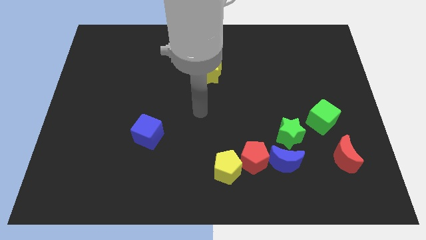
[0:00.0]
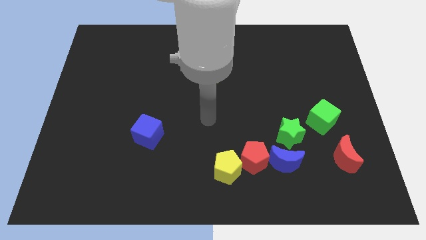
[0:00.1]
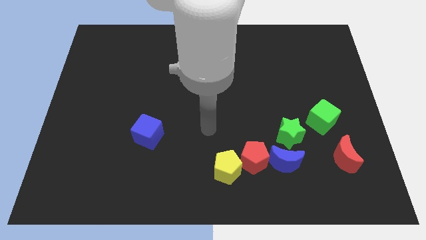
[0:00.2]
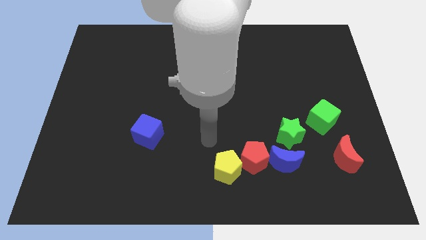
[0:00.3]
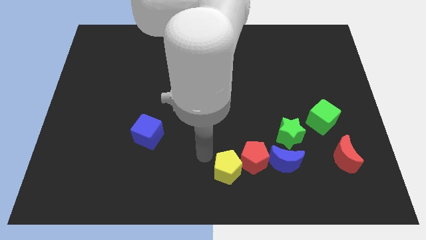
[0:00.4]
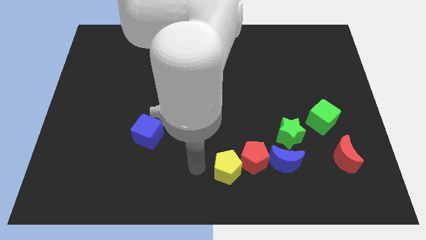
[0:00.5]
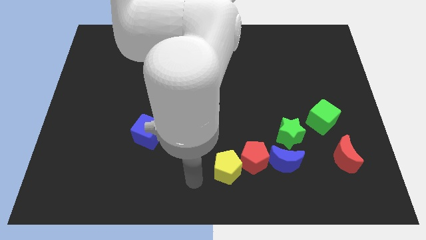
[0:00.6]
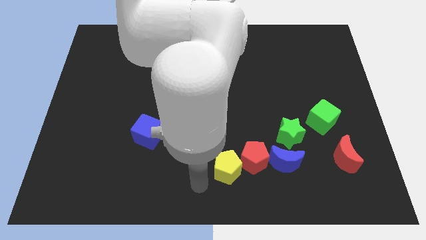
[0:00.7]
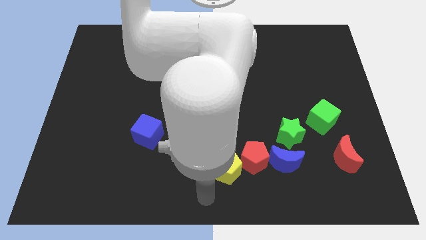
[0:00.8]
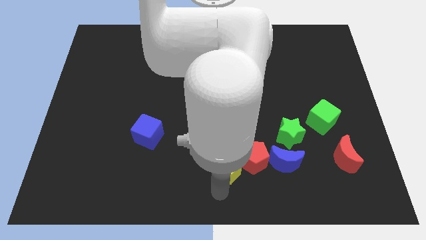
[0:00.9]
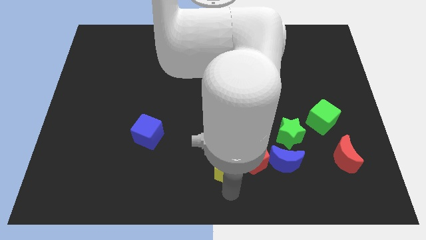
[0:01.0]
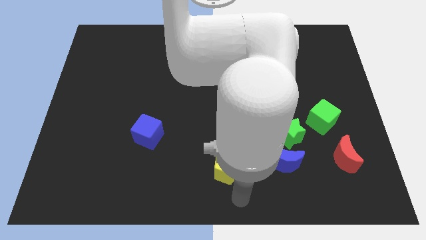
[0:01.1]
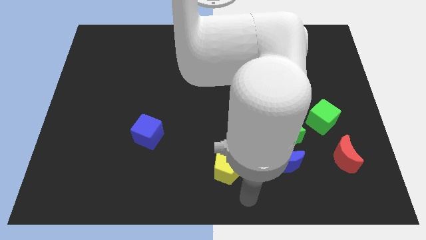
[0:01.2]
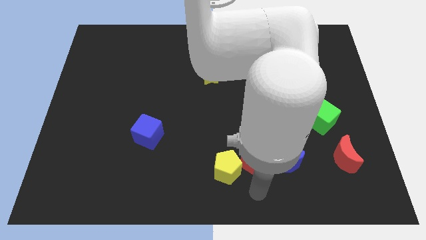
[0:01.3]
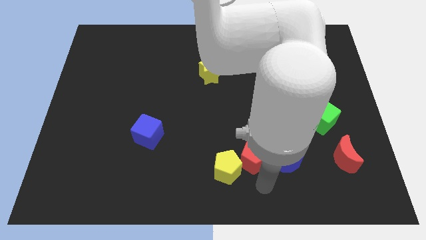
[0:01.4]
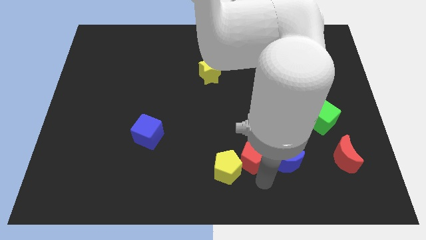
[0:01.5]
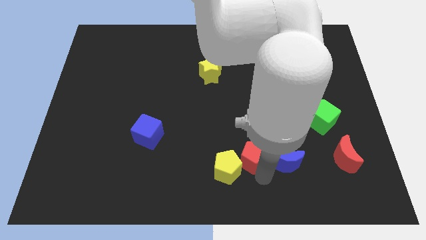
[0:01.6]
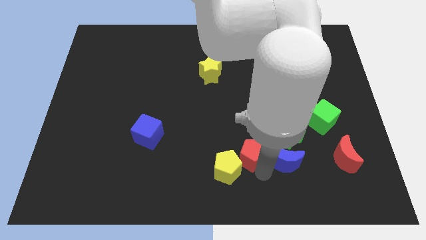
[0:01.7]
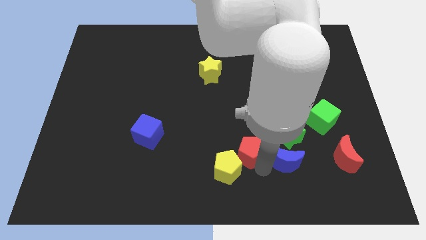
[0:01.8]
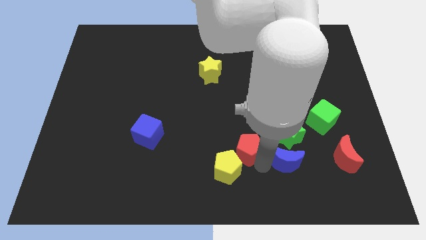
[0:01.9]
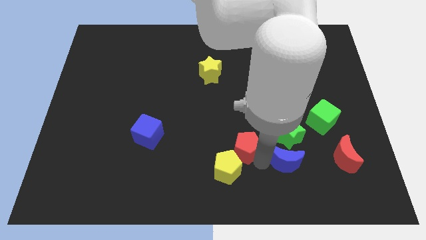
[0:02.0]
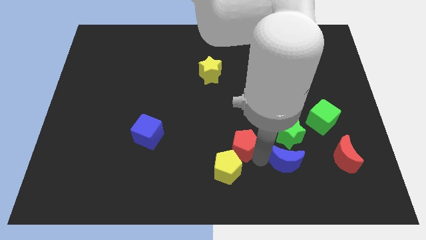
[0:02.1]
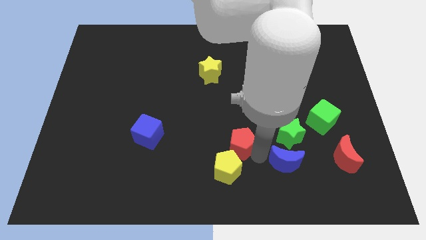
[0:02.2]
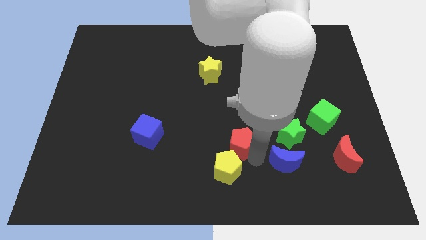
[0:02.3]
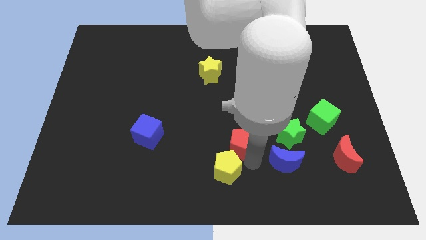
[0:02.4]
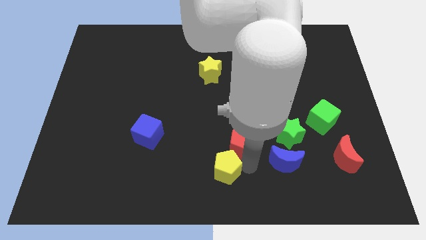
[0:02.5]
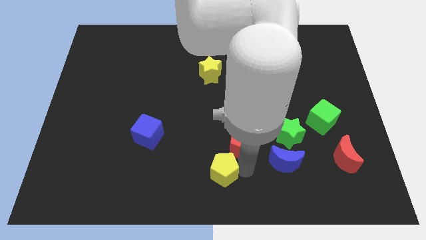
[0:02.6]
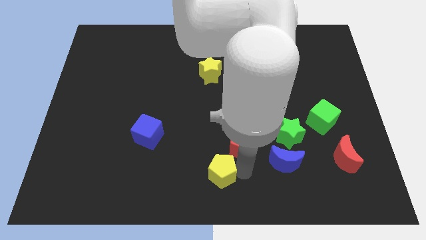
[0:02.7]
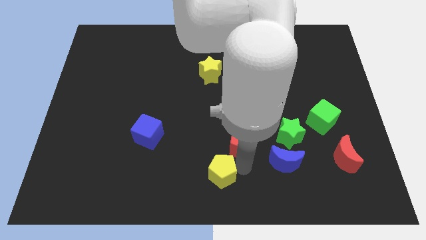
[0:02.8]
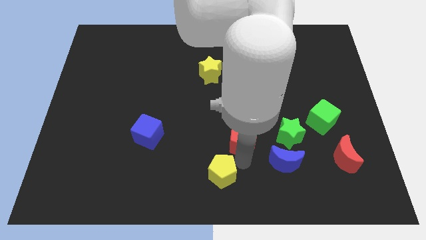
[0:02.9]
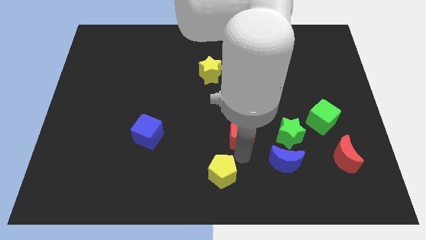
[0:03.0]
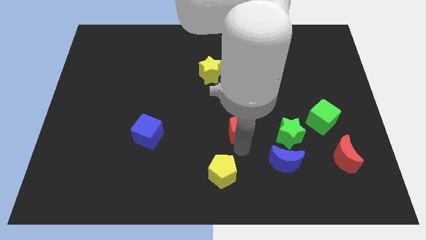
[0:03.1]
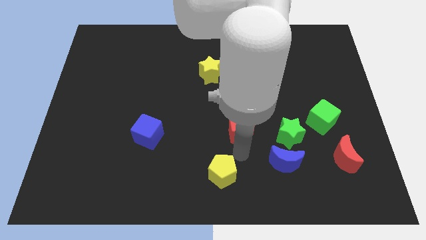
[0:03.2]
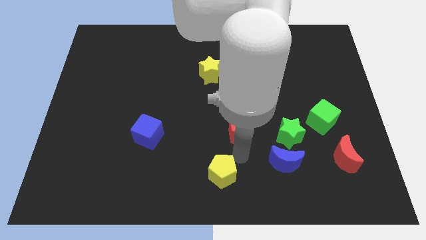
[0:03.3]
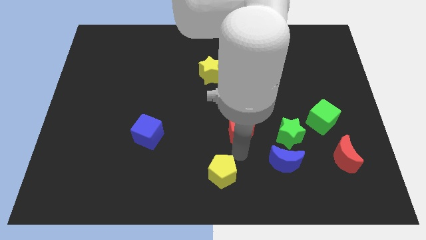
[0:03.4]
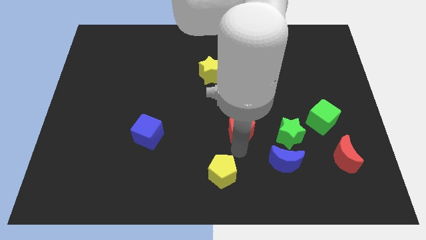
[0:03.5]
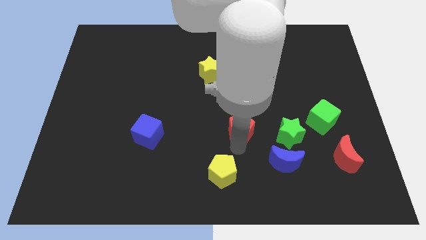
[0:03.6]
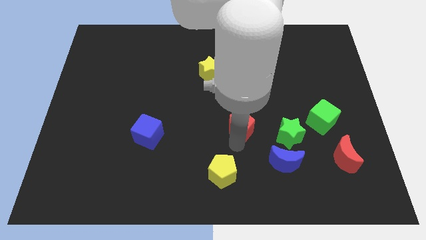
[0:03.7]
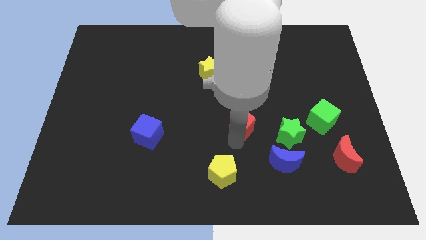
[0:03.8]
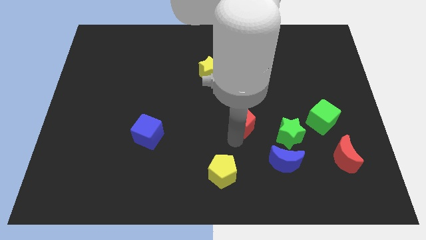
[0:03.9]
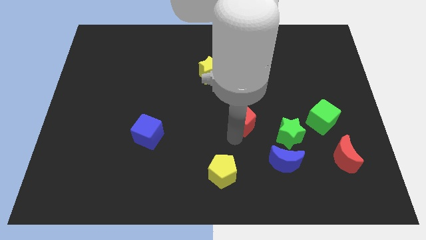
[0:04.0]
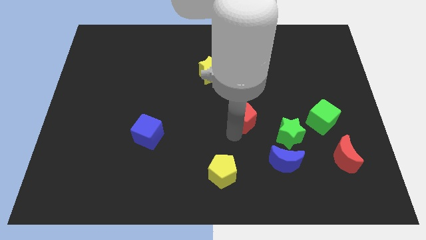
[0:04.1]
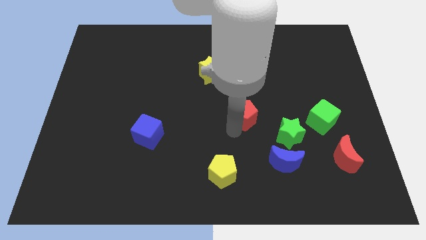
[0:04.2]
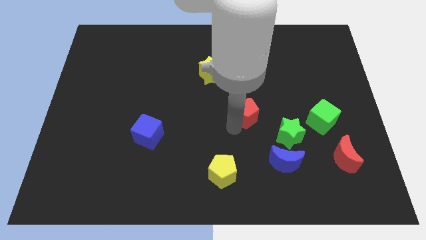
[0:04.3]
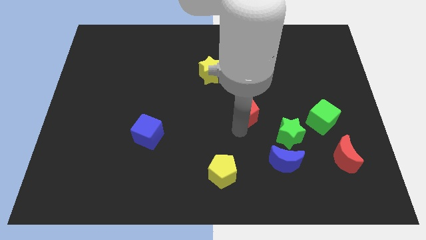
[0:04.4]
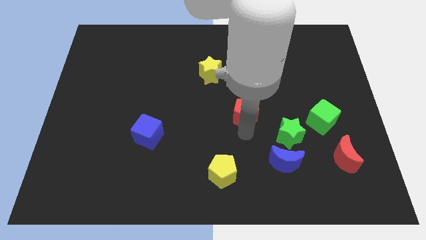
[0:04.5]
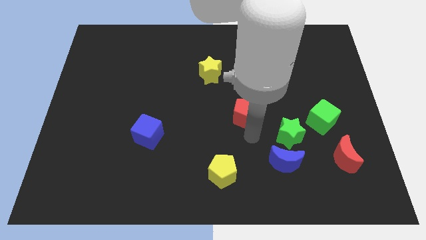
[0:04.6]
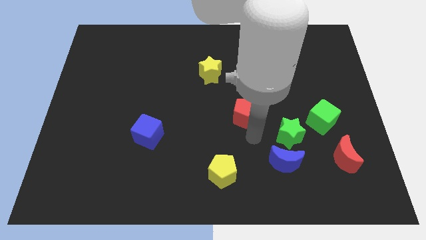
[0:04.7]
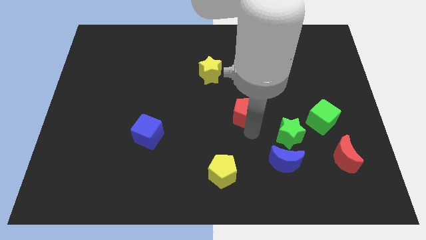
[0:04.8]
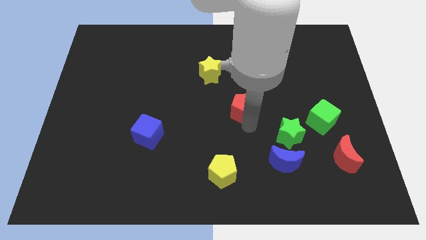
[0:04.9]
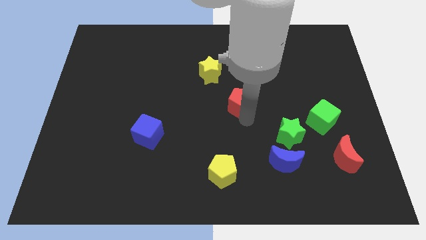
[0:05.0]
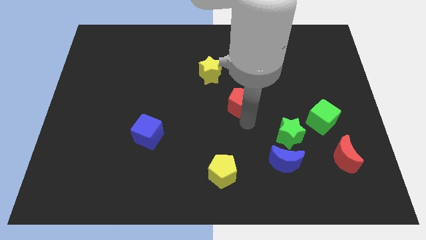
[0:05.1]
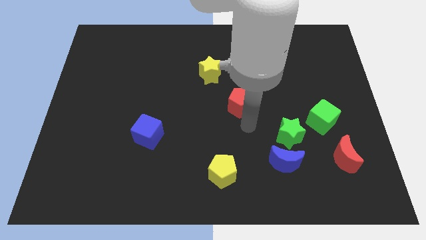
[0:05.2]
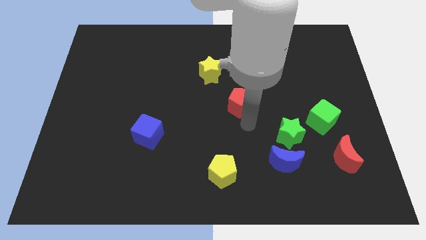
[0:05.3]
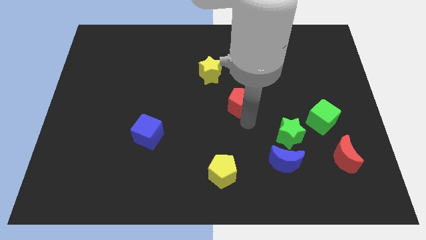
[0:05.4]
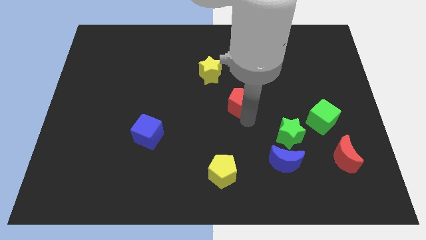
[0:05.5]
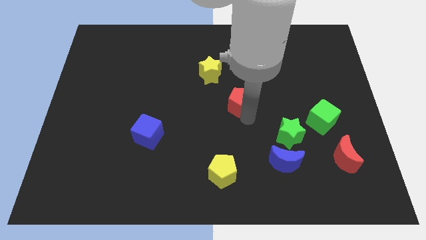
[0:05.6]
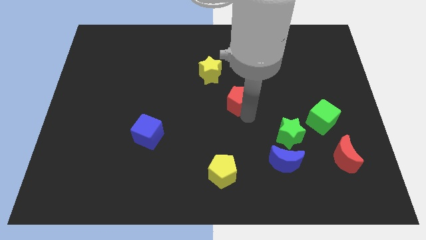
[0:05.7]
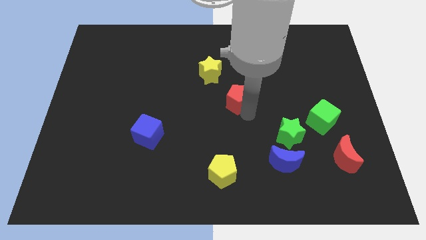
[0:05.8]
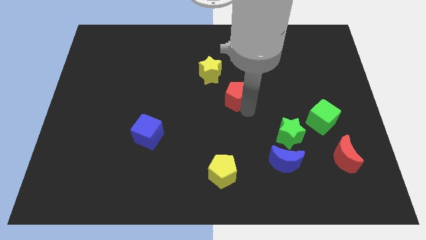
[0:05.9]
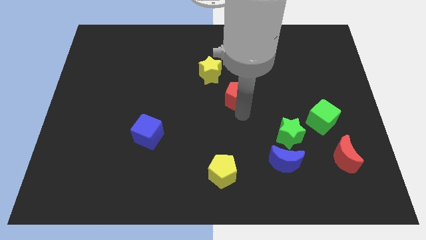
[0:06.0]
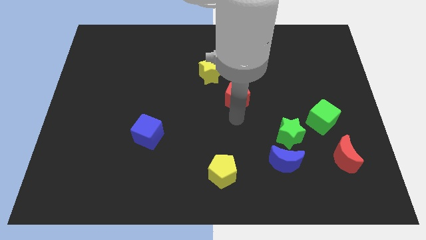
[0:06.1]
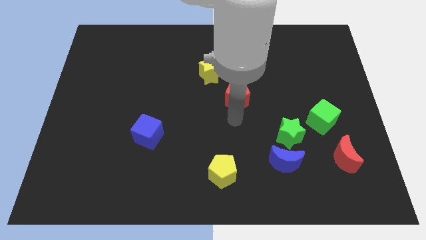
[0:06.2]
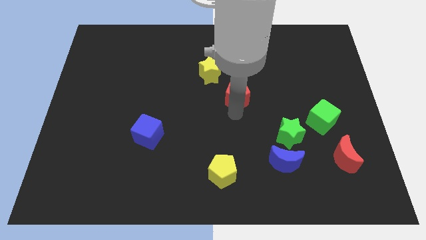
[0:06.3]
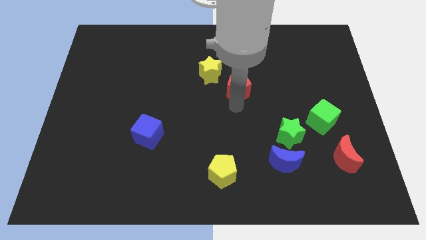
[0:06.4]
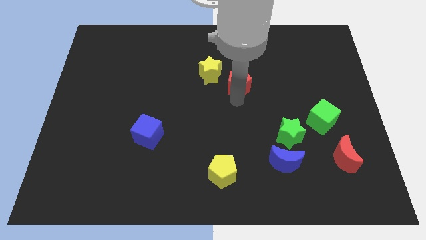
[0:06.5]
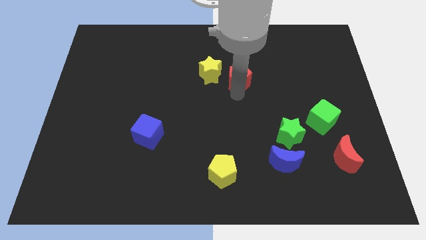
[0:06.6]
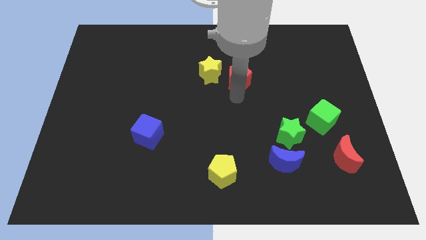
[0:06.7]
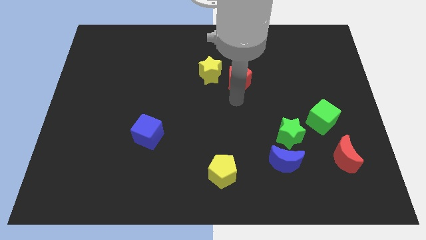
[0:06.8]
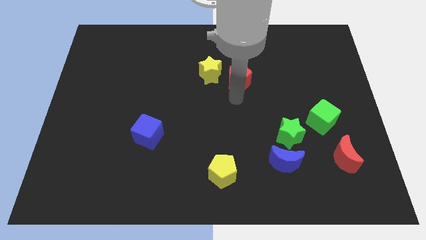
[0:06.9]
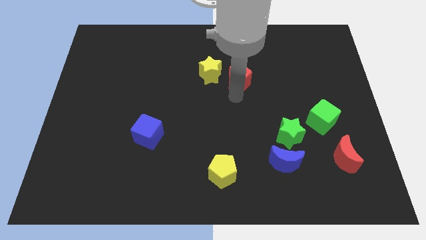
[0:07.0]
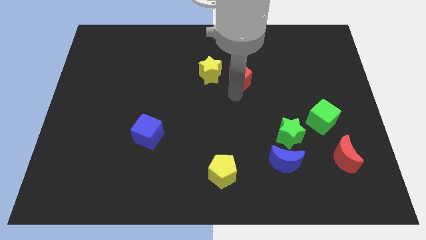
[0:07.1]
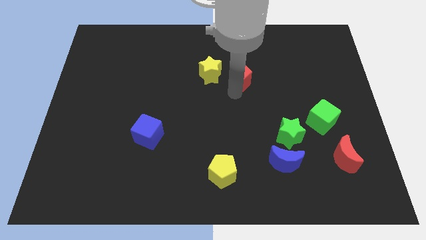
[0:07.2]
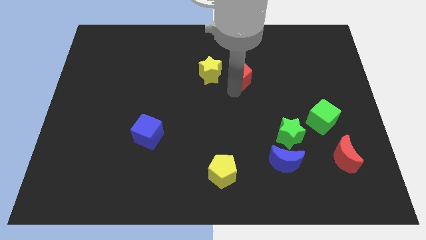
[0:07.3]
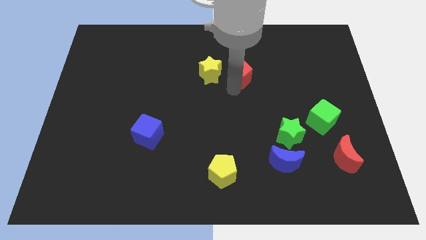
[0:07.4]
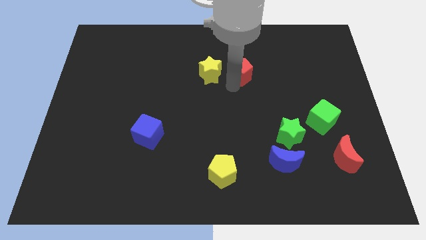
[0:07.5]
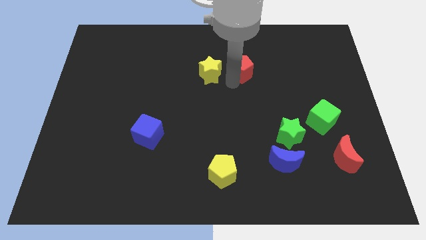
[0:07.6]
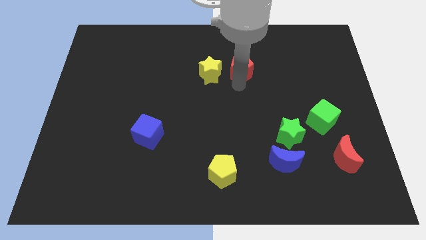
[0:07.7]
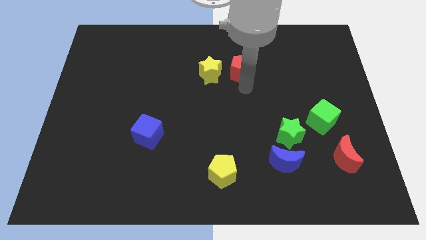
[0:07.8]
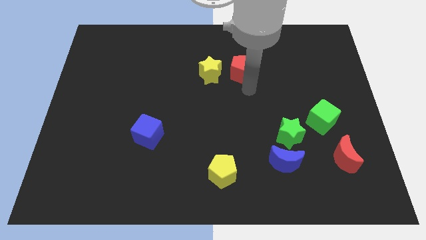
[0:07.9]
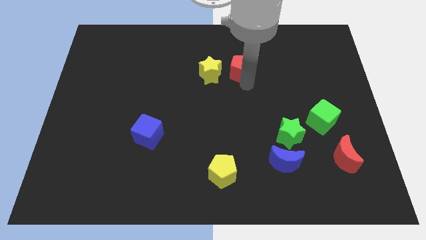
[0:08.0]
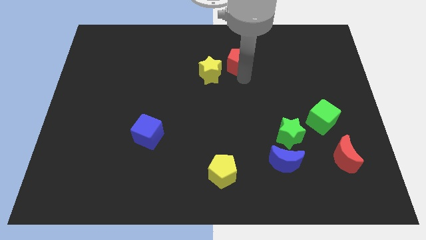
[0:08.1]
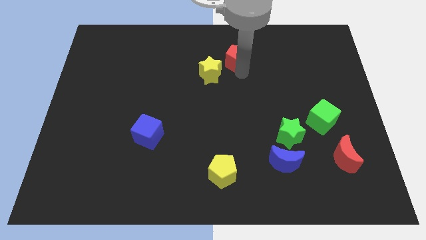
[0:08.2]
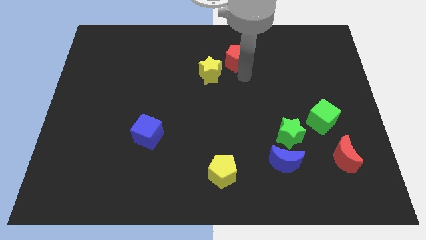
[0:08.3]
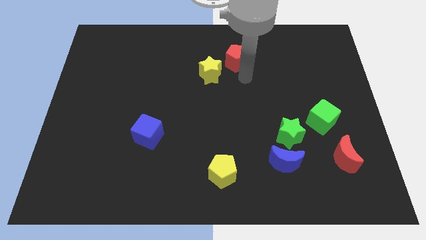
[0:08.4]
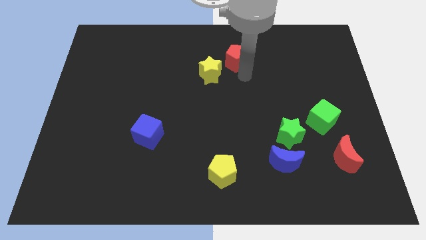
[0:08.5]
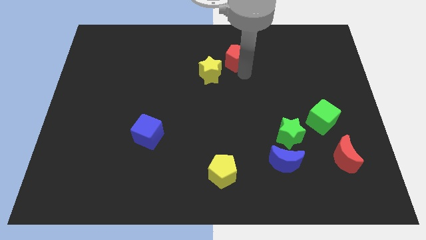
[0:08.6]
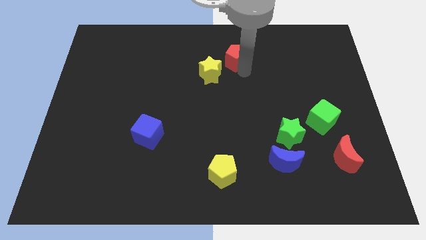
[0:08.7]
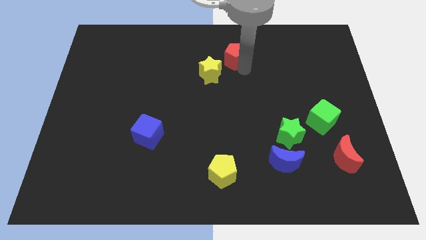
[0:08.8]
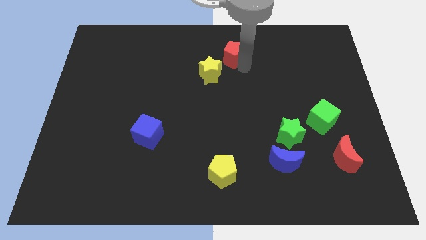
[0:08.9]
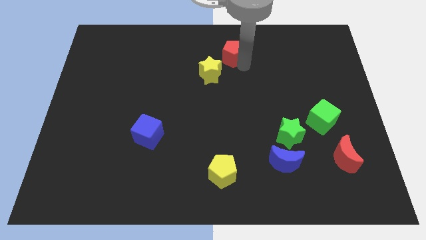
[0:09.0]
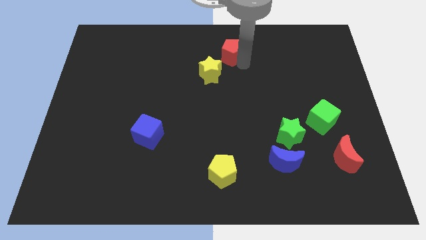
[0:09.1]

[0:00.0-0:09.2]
slide the red pentagon to the top side
